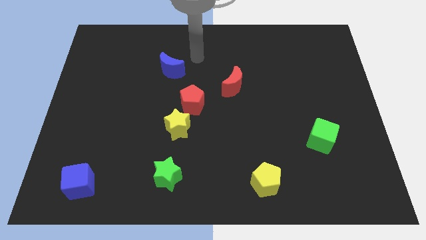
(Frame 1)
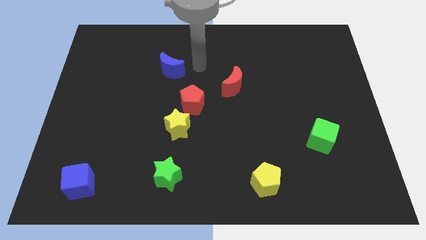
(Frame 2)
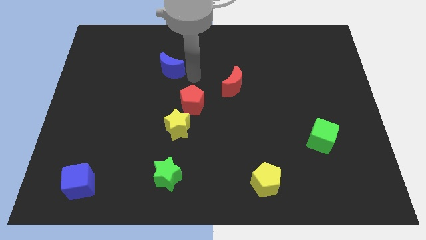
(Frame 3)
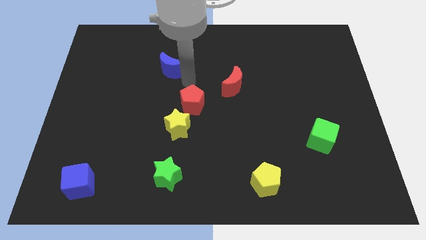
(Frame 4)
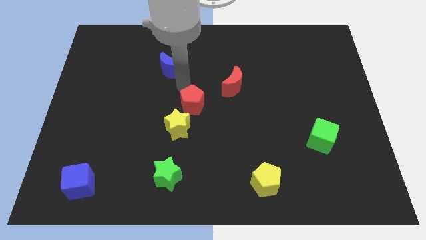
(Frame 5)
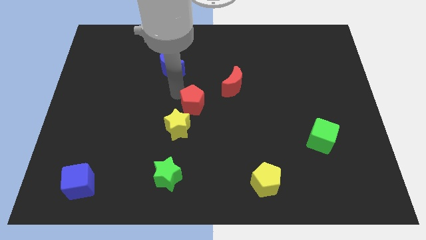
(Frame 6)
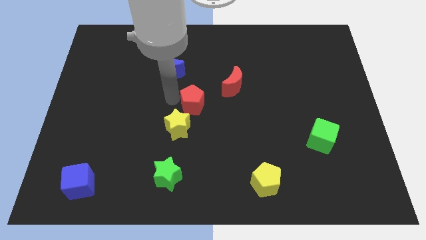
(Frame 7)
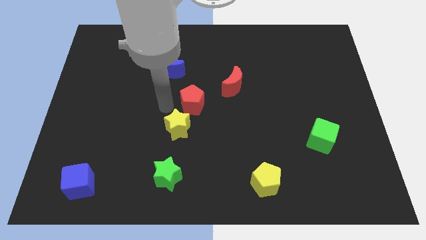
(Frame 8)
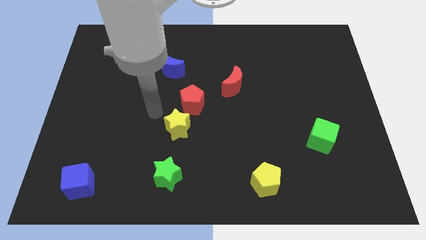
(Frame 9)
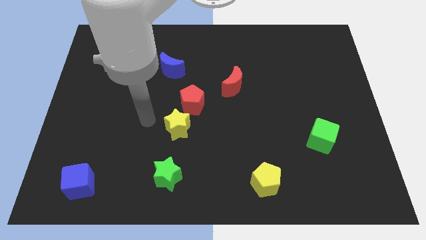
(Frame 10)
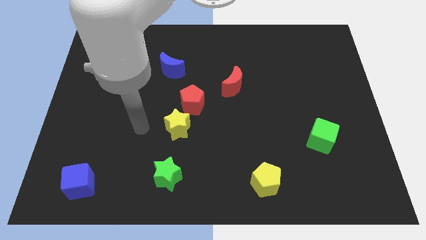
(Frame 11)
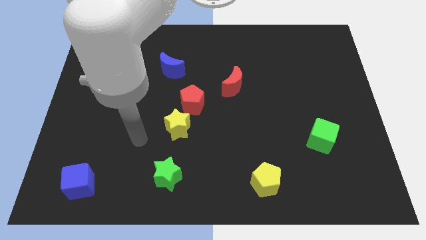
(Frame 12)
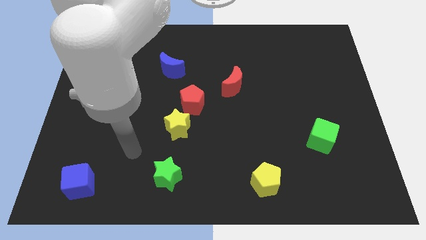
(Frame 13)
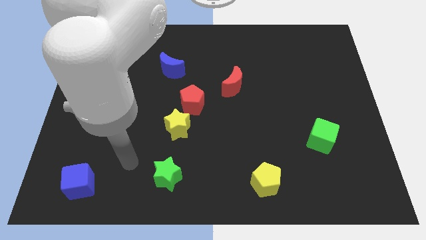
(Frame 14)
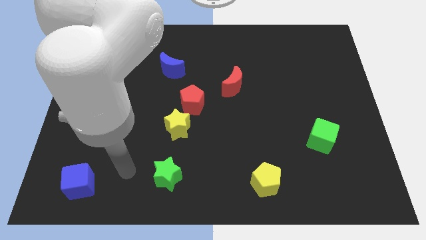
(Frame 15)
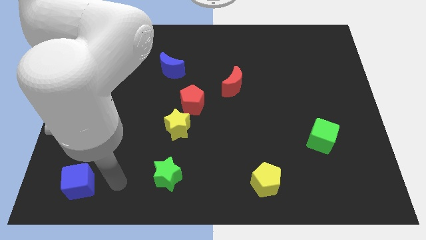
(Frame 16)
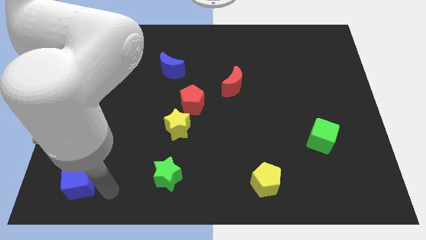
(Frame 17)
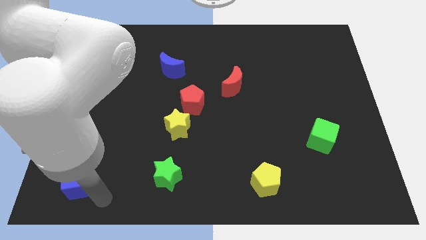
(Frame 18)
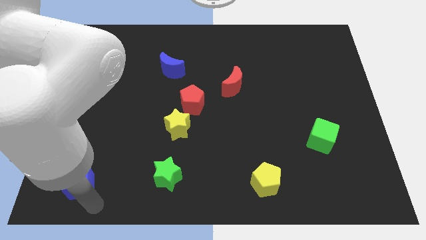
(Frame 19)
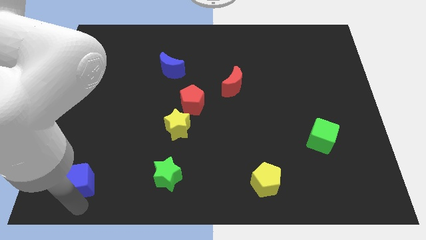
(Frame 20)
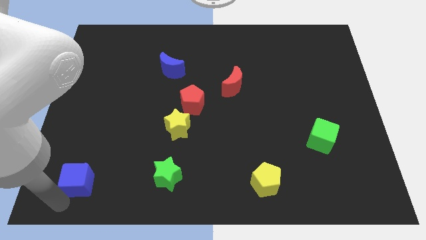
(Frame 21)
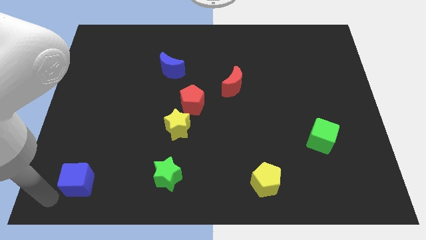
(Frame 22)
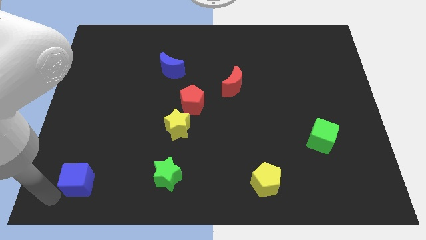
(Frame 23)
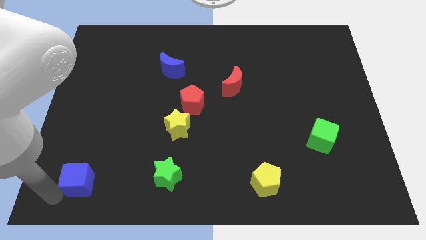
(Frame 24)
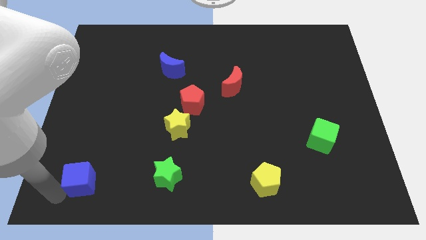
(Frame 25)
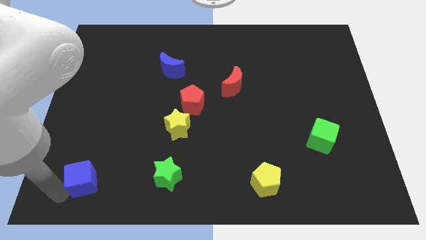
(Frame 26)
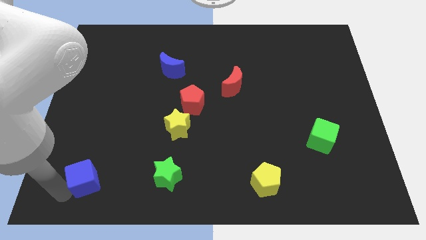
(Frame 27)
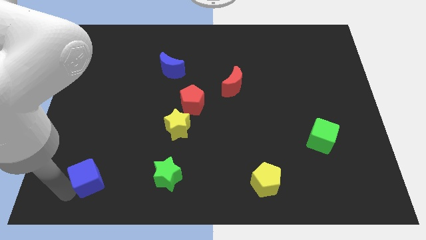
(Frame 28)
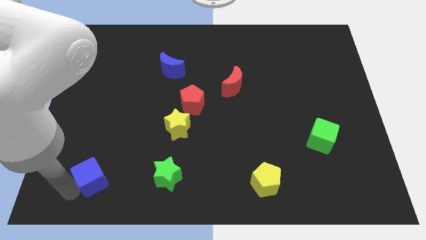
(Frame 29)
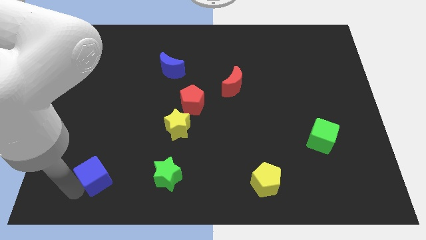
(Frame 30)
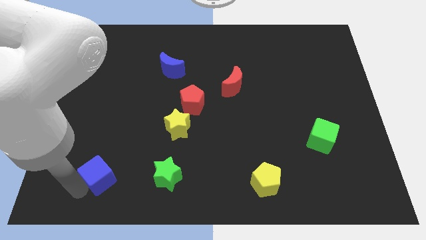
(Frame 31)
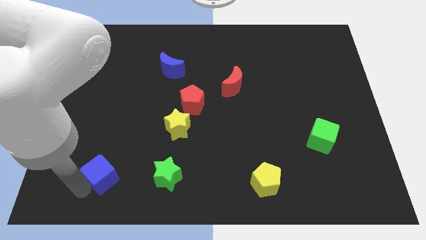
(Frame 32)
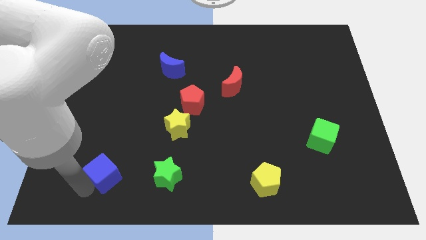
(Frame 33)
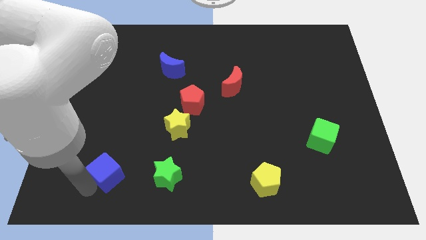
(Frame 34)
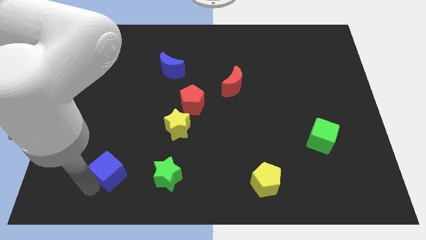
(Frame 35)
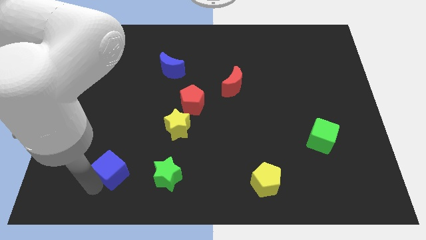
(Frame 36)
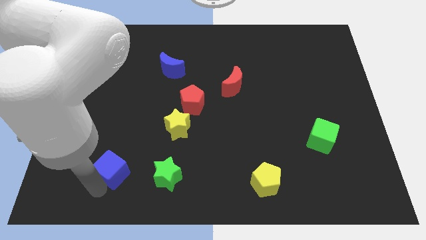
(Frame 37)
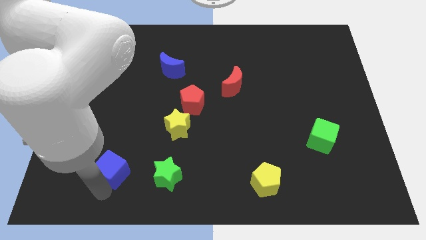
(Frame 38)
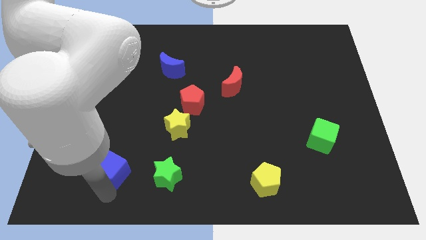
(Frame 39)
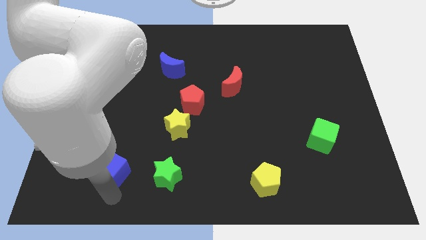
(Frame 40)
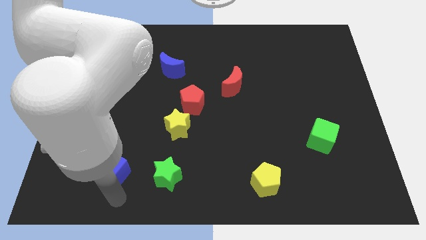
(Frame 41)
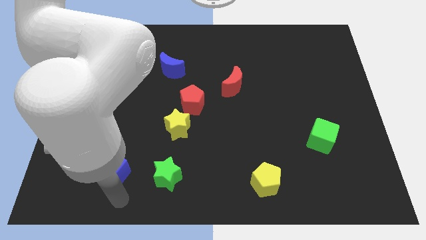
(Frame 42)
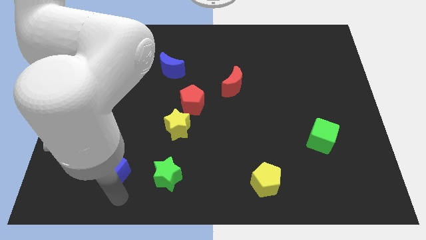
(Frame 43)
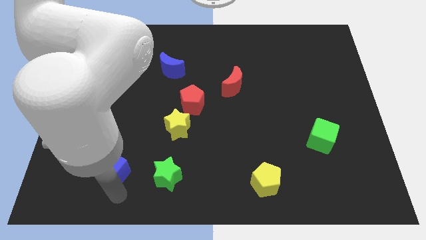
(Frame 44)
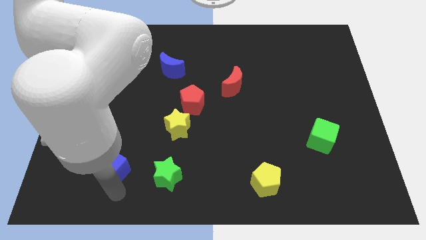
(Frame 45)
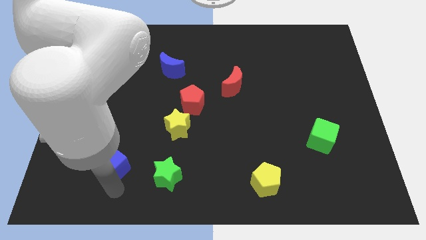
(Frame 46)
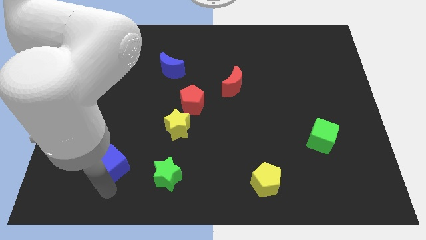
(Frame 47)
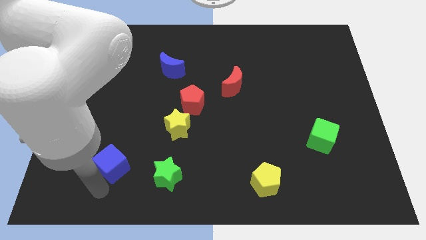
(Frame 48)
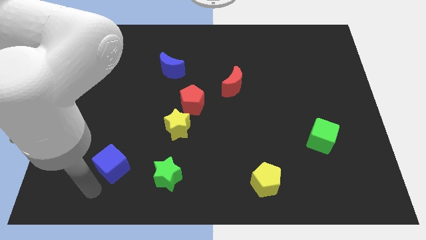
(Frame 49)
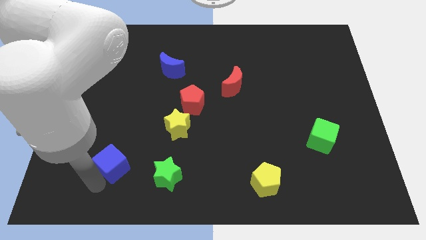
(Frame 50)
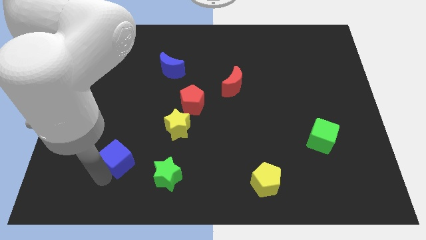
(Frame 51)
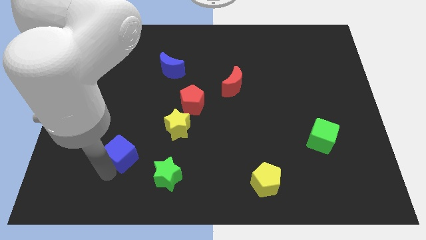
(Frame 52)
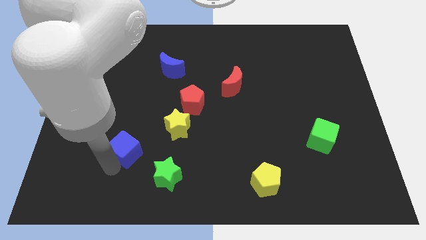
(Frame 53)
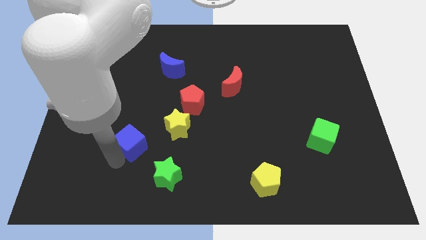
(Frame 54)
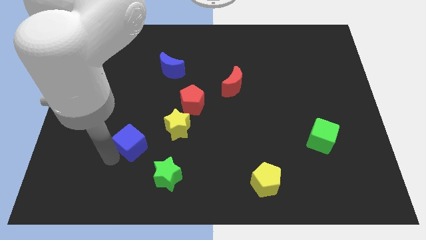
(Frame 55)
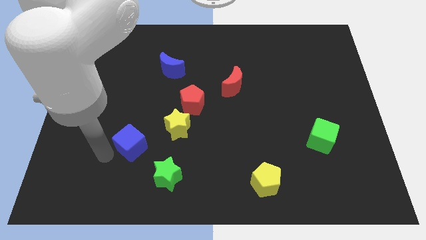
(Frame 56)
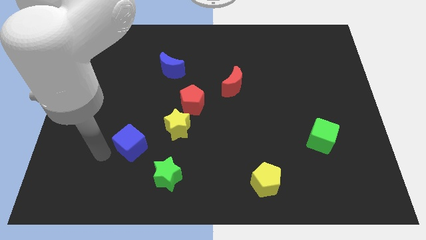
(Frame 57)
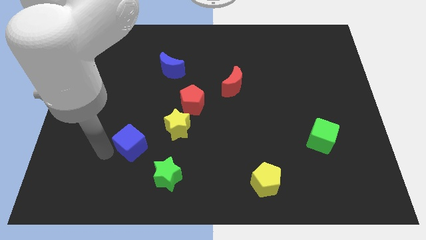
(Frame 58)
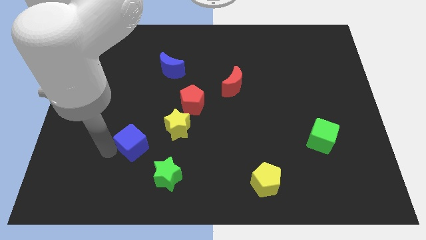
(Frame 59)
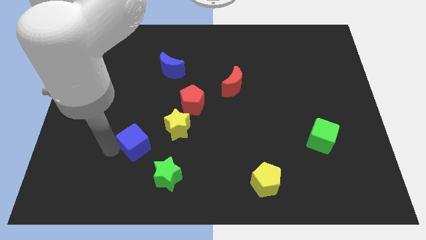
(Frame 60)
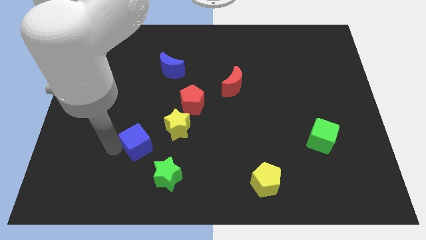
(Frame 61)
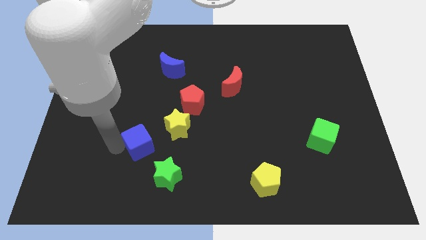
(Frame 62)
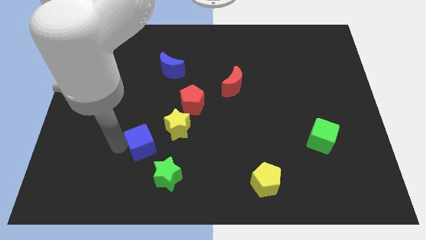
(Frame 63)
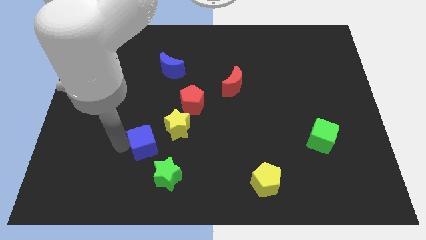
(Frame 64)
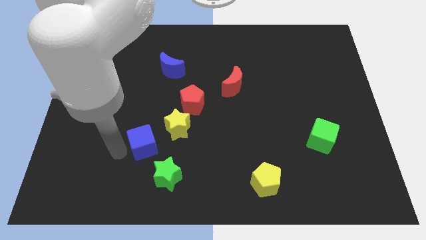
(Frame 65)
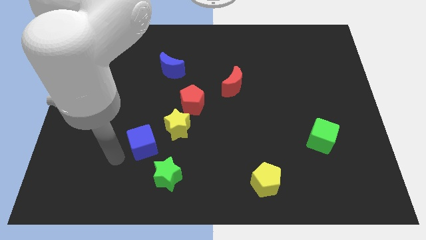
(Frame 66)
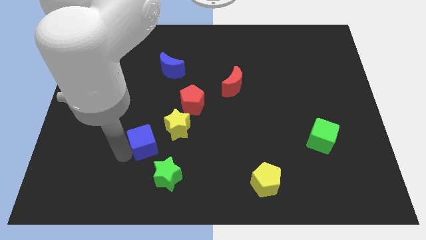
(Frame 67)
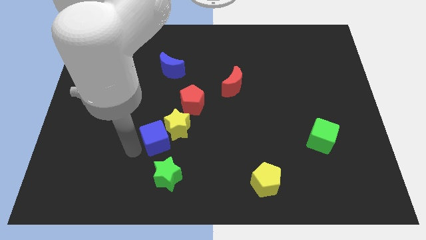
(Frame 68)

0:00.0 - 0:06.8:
put the blue cube to the yellow star
